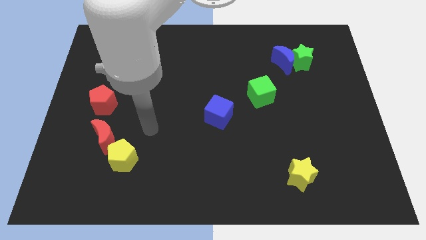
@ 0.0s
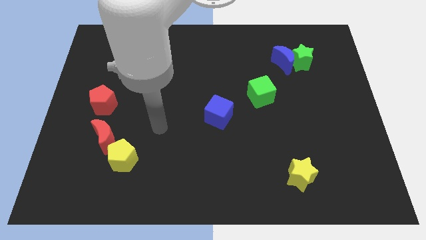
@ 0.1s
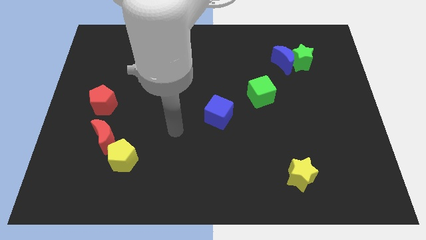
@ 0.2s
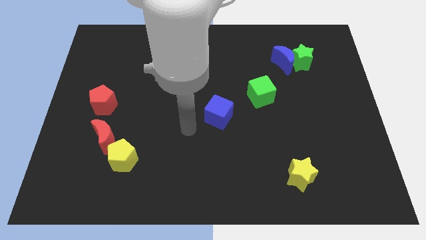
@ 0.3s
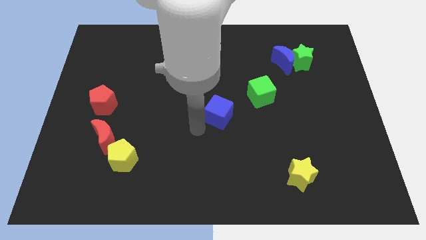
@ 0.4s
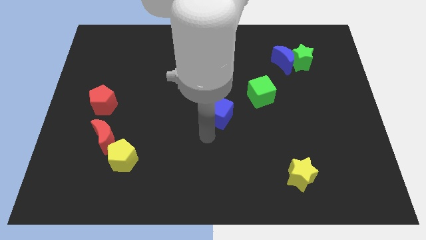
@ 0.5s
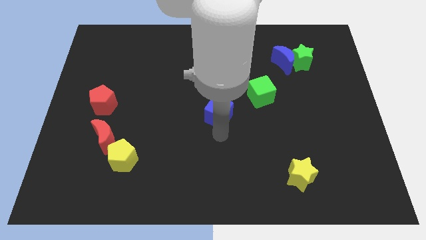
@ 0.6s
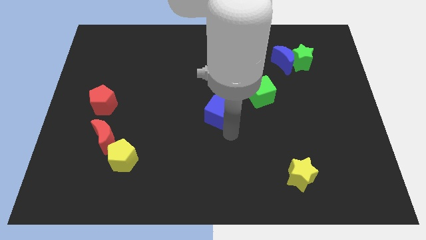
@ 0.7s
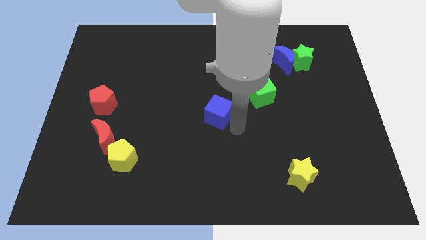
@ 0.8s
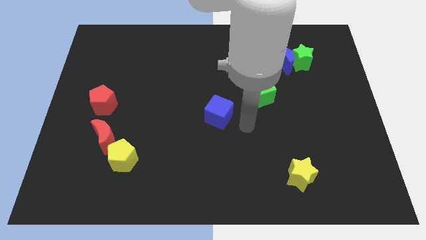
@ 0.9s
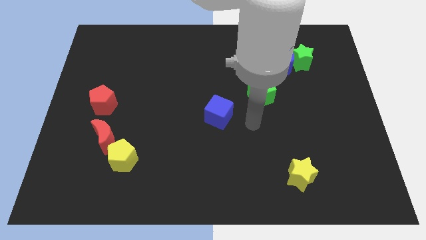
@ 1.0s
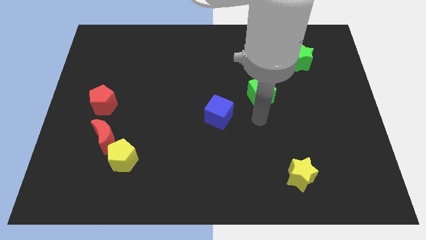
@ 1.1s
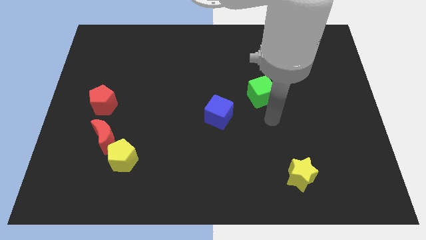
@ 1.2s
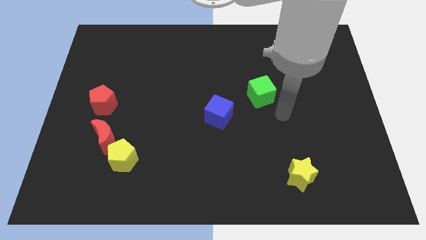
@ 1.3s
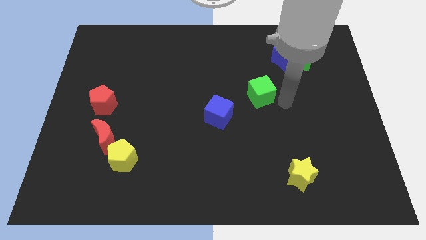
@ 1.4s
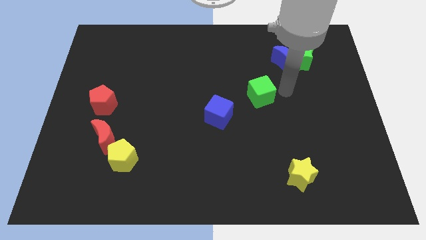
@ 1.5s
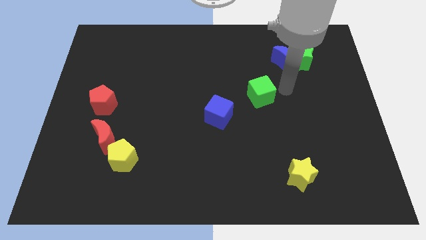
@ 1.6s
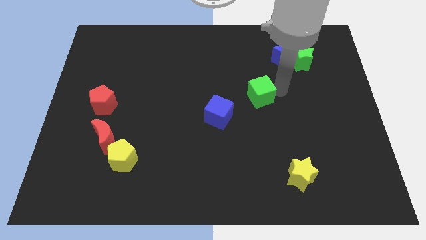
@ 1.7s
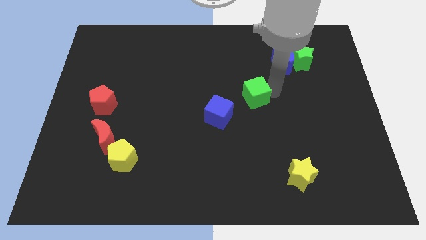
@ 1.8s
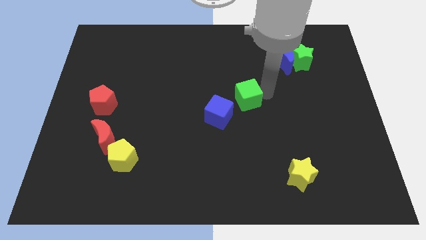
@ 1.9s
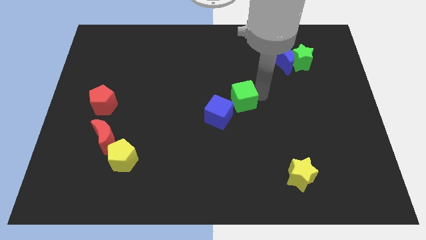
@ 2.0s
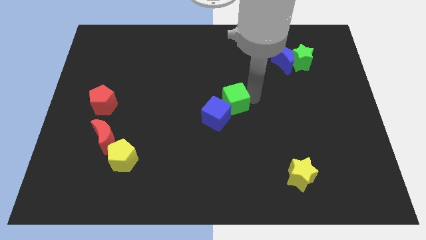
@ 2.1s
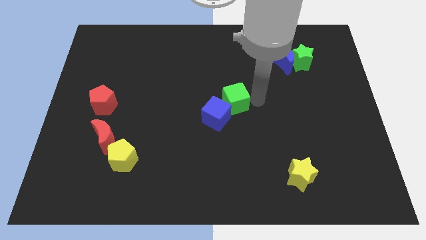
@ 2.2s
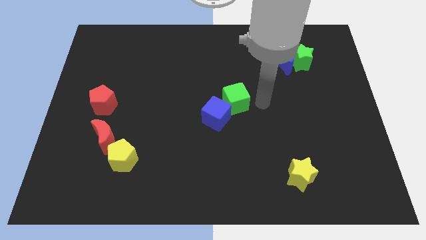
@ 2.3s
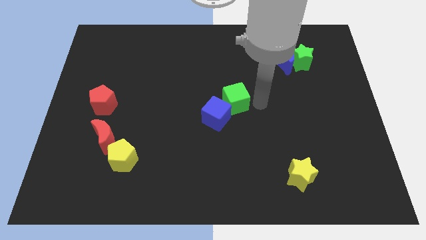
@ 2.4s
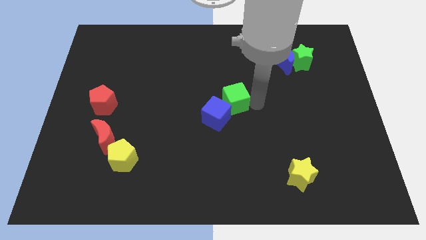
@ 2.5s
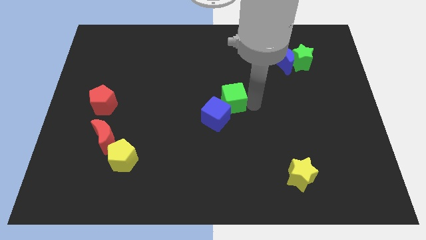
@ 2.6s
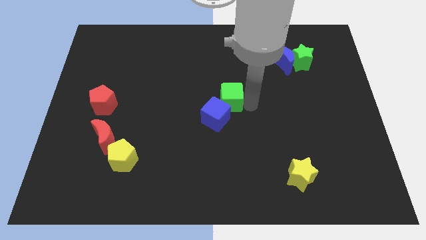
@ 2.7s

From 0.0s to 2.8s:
move the green cube left a little bit

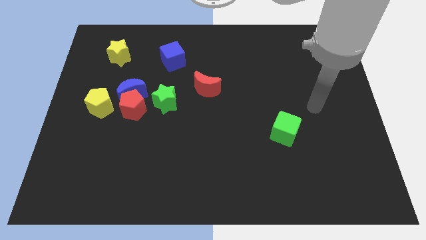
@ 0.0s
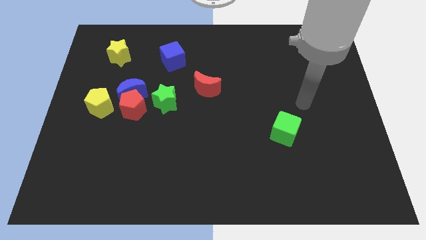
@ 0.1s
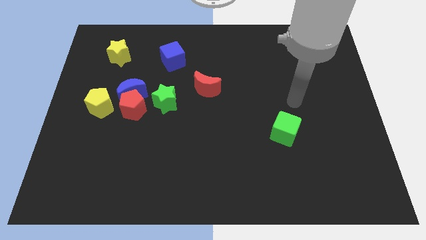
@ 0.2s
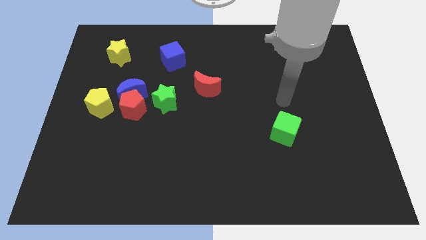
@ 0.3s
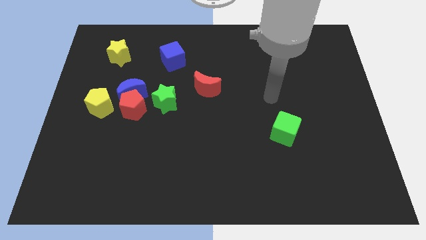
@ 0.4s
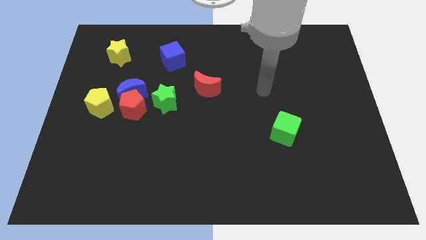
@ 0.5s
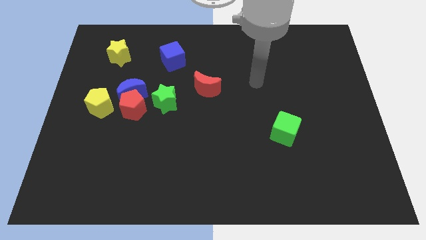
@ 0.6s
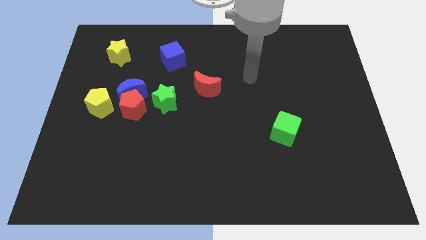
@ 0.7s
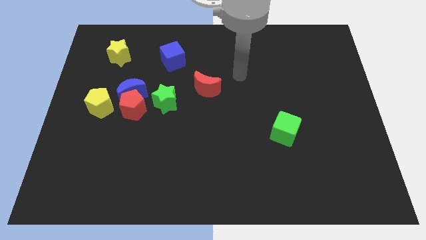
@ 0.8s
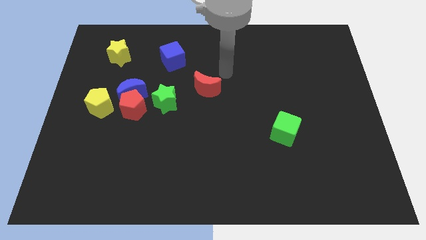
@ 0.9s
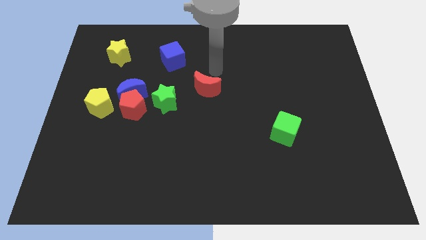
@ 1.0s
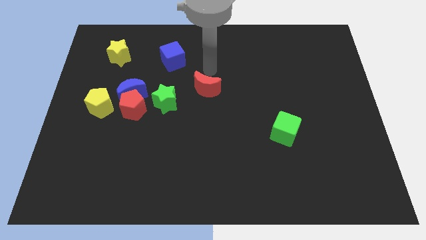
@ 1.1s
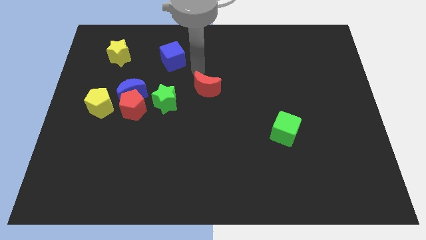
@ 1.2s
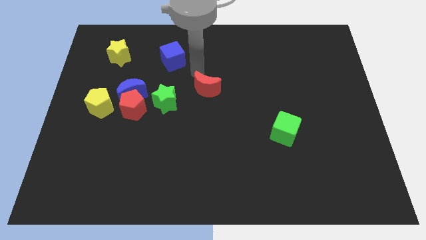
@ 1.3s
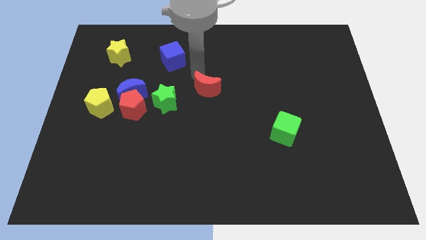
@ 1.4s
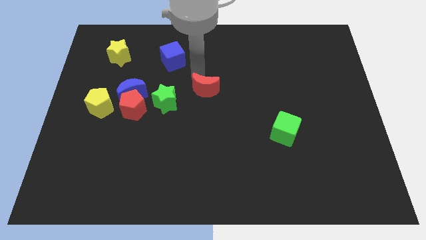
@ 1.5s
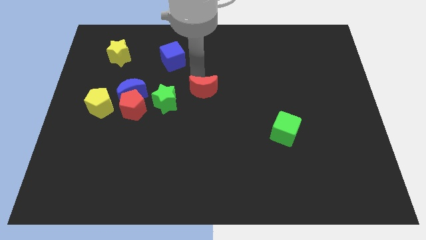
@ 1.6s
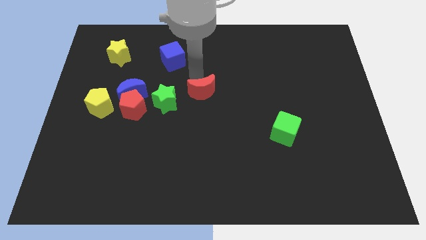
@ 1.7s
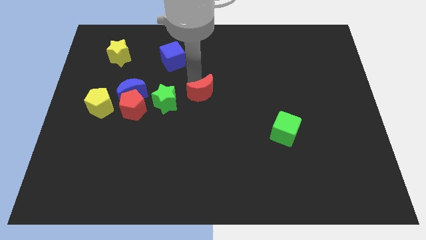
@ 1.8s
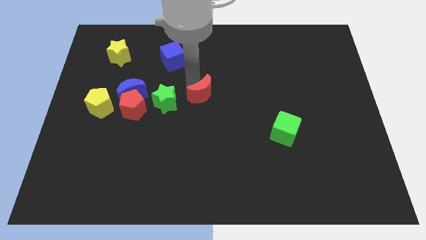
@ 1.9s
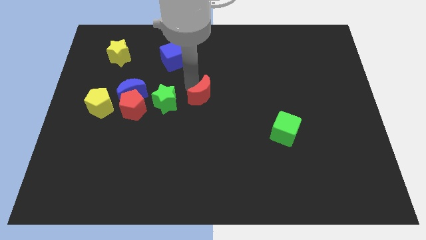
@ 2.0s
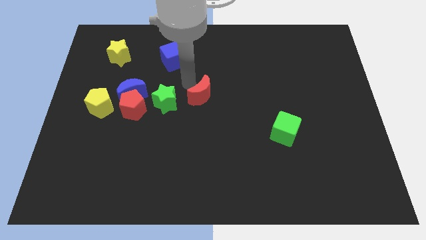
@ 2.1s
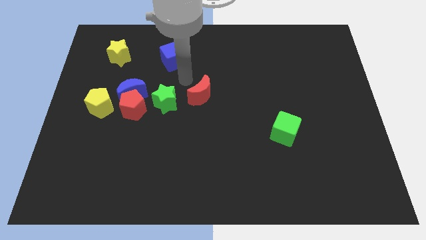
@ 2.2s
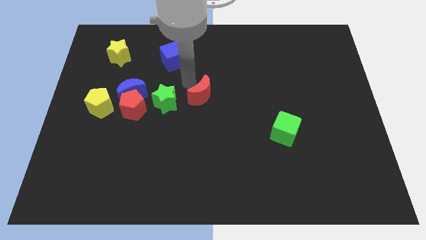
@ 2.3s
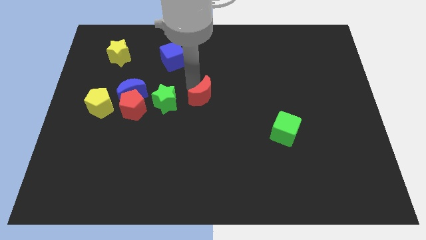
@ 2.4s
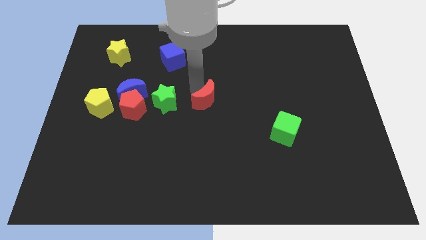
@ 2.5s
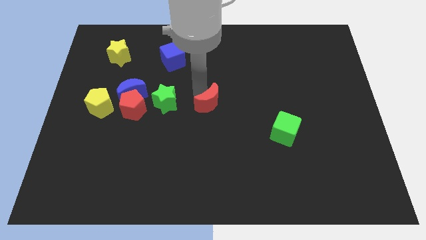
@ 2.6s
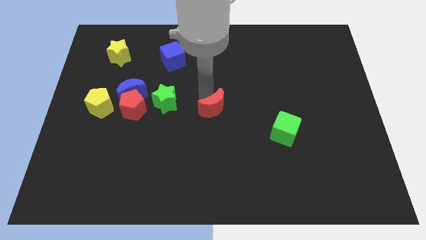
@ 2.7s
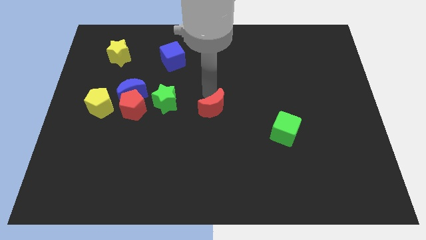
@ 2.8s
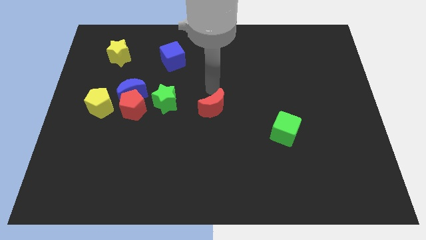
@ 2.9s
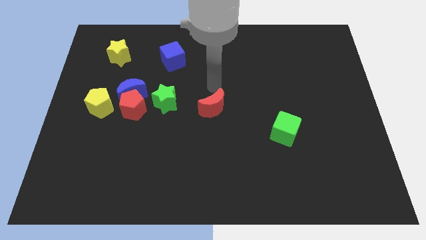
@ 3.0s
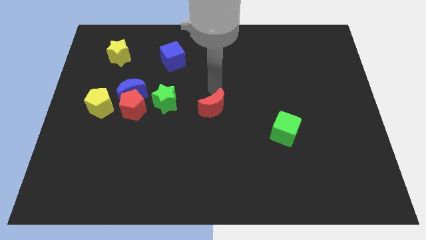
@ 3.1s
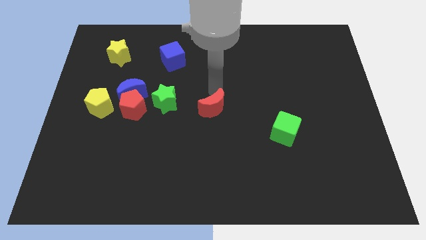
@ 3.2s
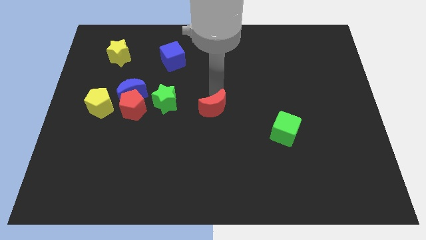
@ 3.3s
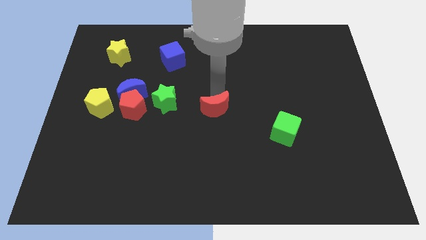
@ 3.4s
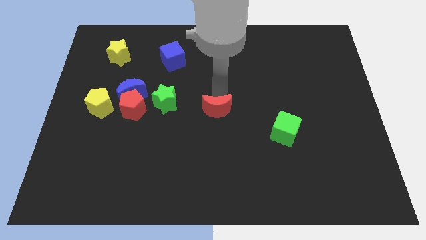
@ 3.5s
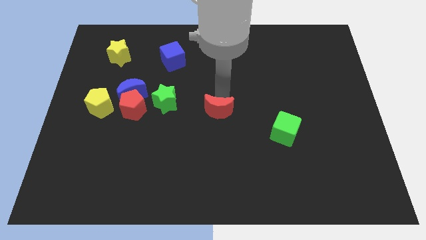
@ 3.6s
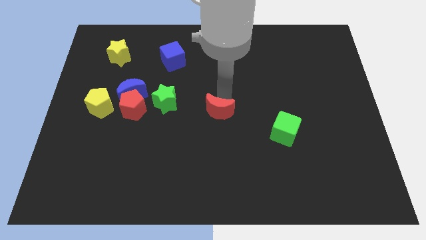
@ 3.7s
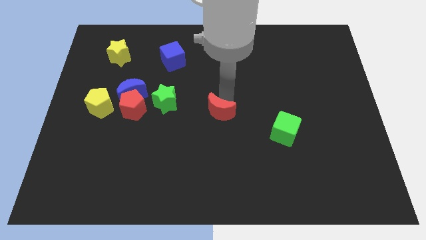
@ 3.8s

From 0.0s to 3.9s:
push the red moon somewhat down

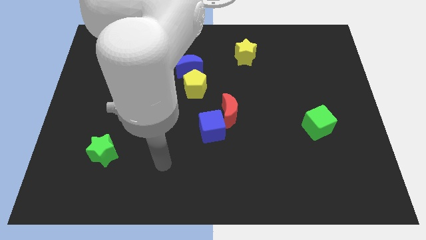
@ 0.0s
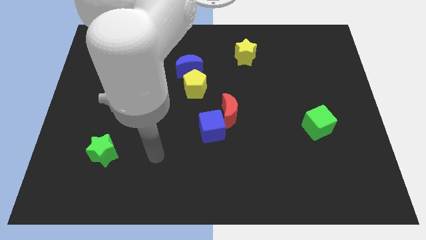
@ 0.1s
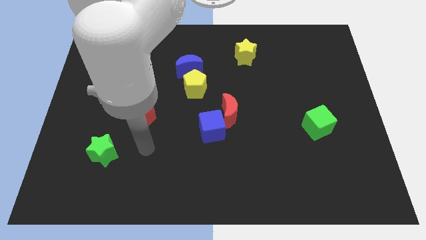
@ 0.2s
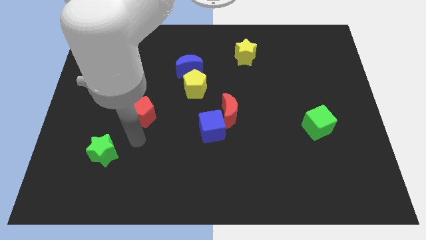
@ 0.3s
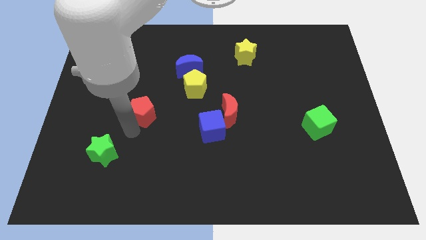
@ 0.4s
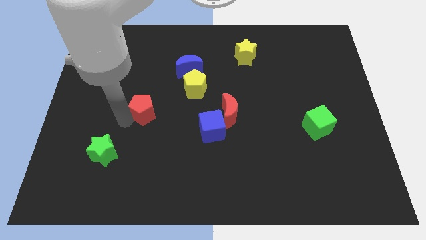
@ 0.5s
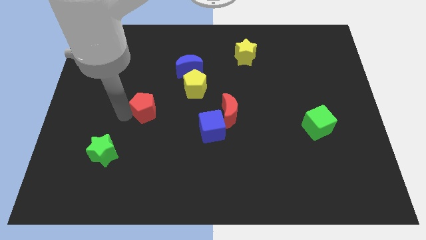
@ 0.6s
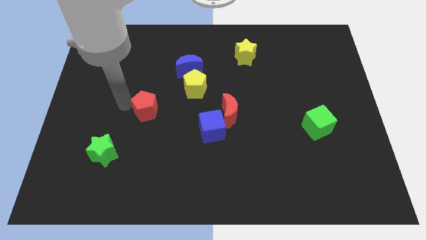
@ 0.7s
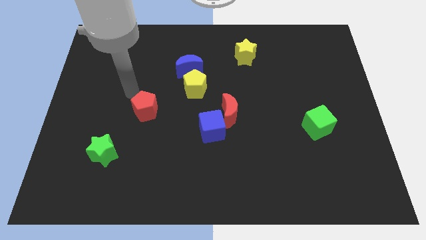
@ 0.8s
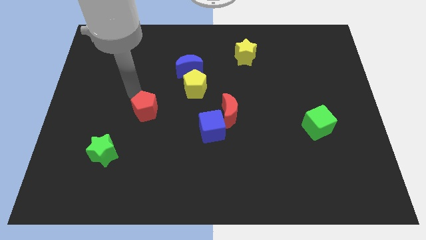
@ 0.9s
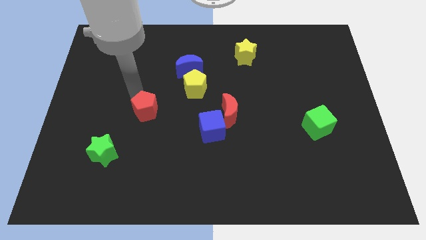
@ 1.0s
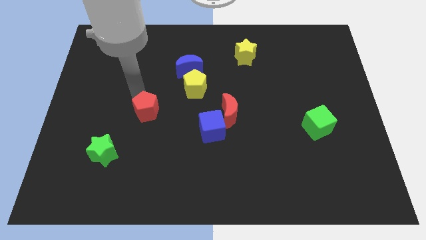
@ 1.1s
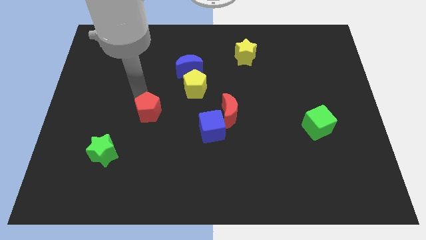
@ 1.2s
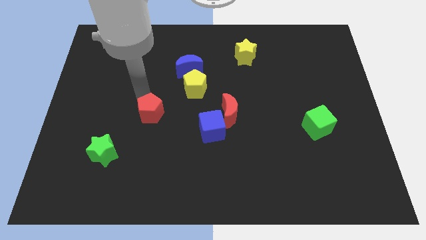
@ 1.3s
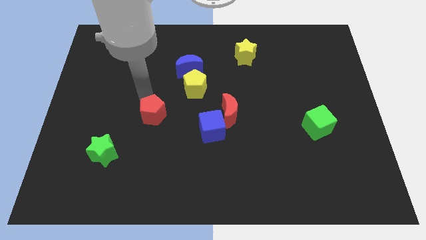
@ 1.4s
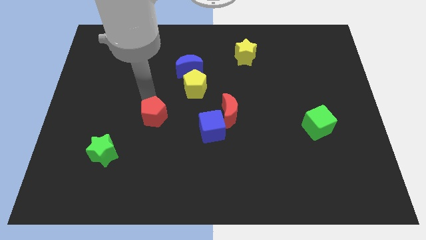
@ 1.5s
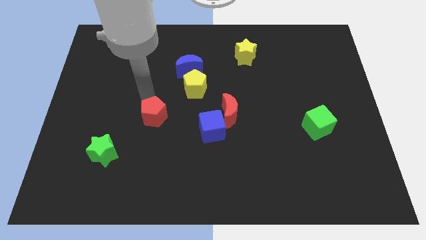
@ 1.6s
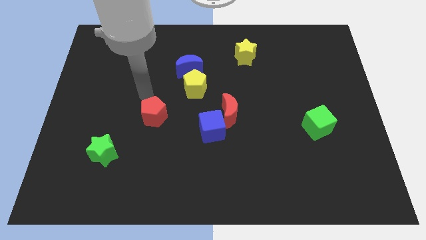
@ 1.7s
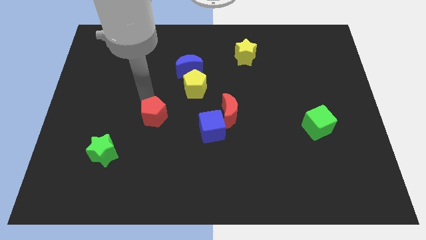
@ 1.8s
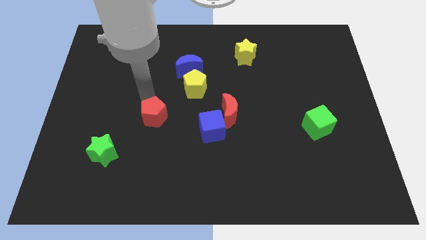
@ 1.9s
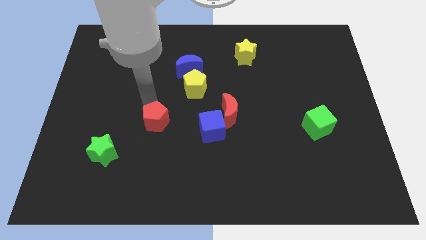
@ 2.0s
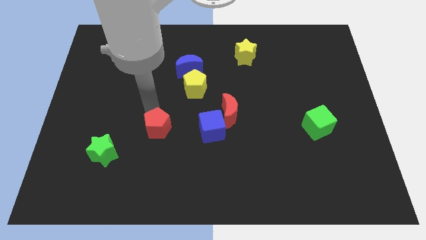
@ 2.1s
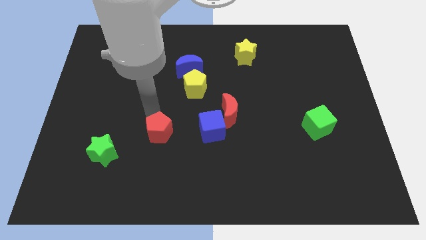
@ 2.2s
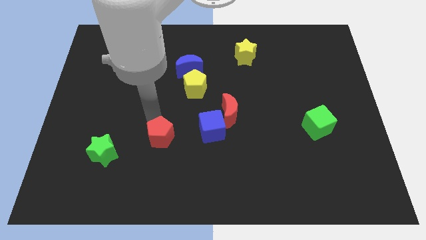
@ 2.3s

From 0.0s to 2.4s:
push the red pentagon downwards and then right a bit
